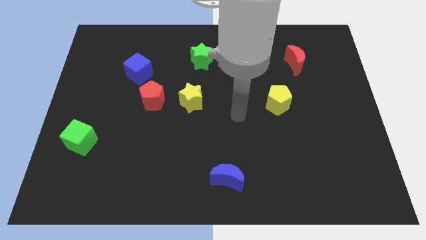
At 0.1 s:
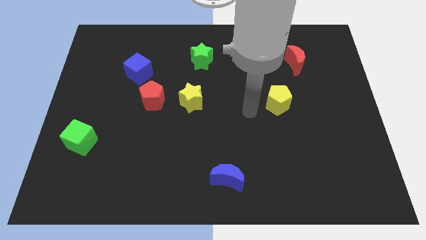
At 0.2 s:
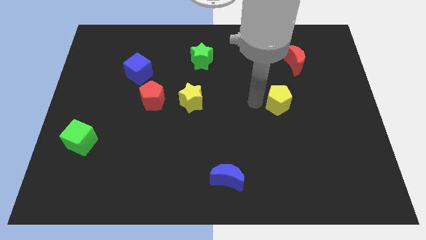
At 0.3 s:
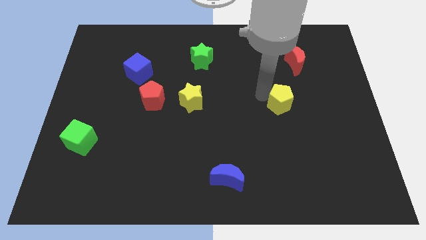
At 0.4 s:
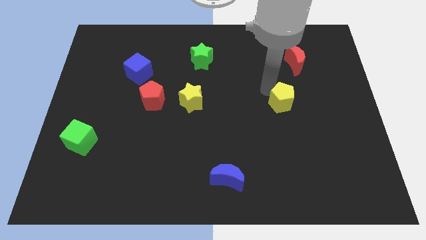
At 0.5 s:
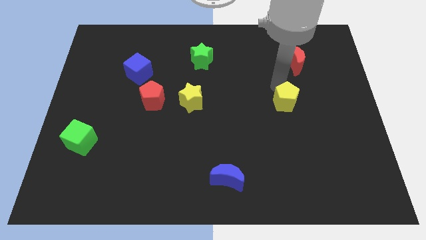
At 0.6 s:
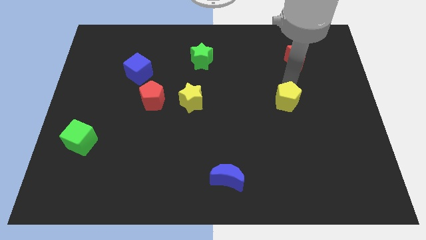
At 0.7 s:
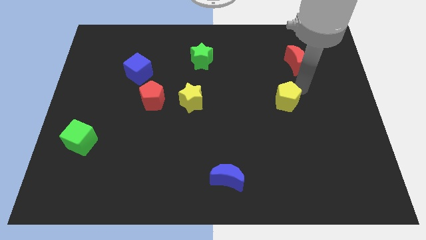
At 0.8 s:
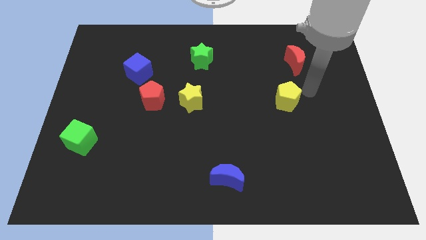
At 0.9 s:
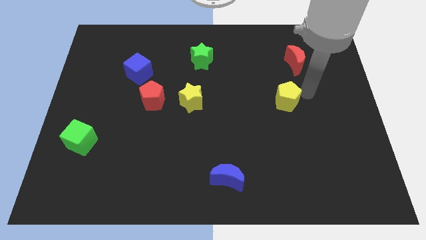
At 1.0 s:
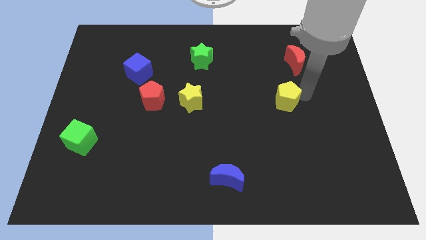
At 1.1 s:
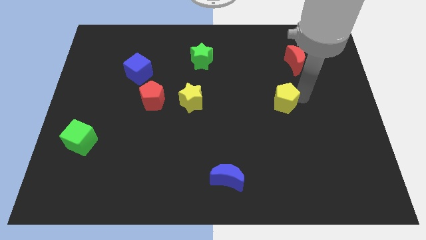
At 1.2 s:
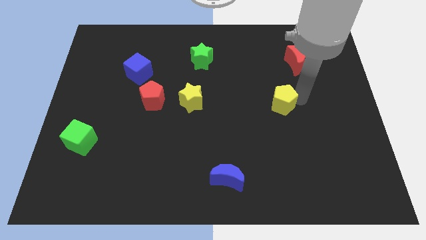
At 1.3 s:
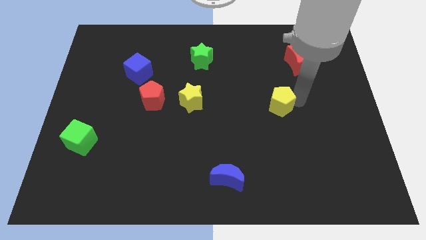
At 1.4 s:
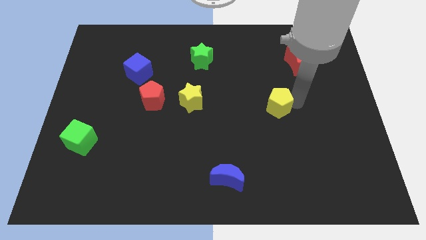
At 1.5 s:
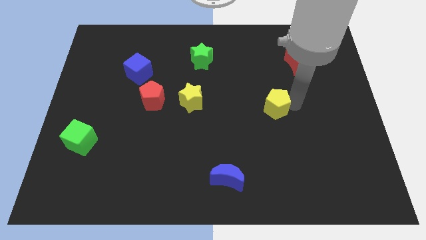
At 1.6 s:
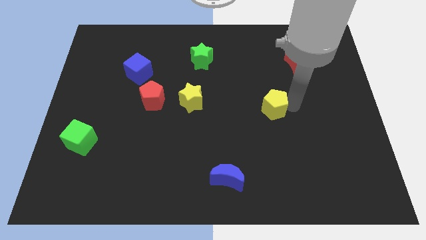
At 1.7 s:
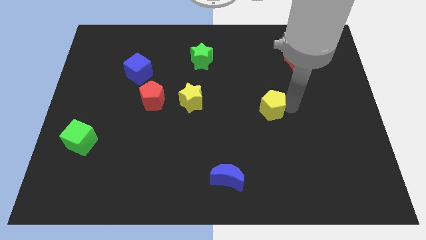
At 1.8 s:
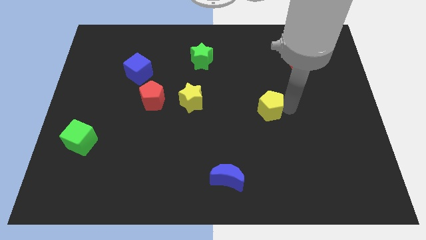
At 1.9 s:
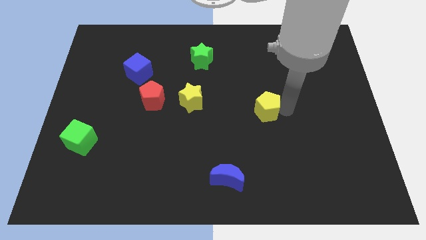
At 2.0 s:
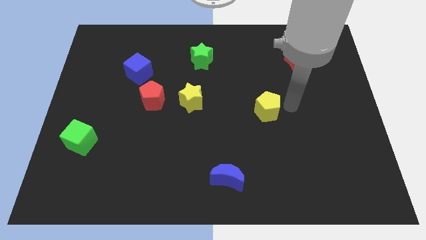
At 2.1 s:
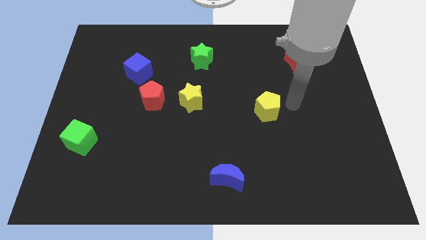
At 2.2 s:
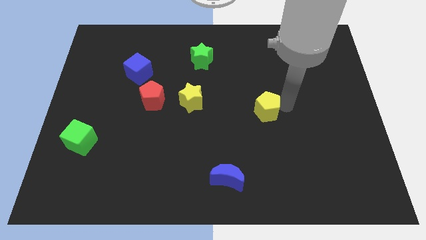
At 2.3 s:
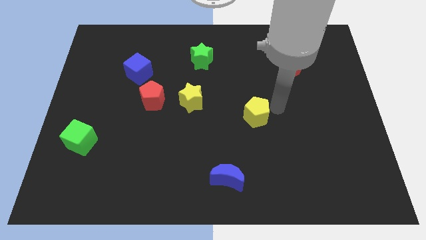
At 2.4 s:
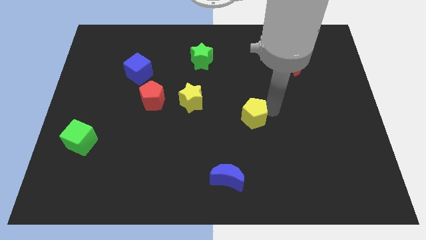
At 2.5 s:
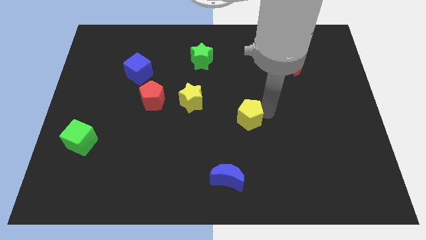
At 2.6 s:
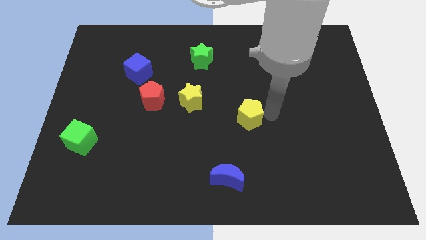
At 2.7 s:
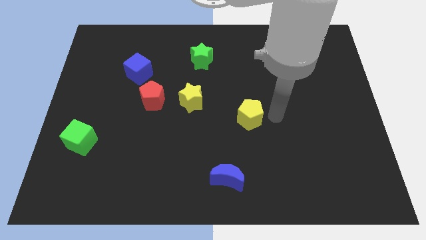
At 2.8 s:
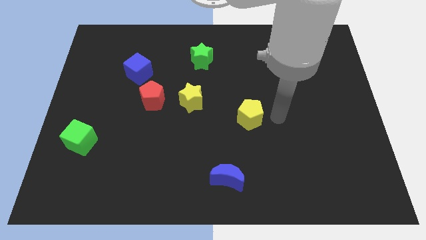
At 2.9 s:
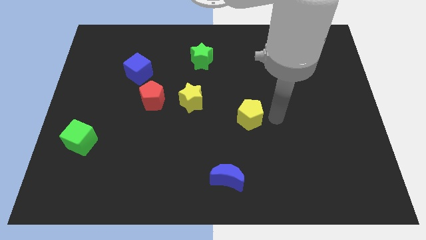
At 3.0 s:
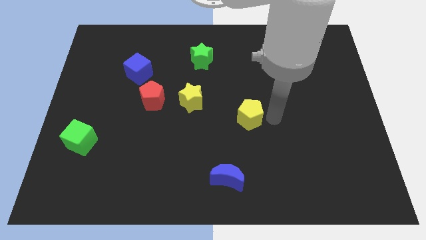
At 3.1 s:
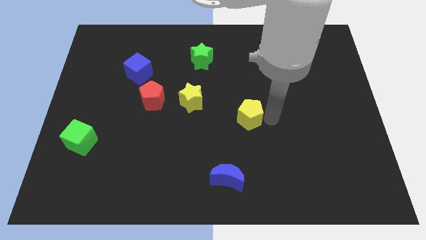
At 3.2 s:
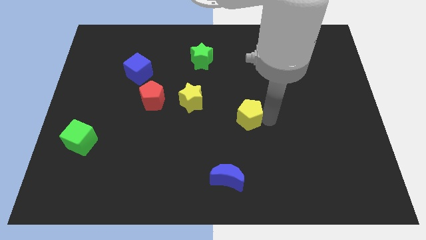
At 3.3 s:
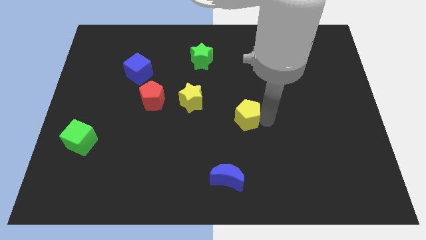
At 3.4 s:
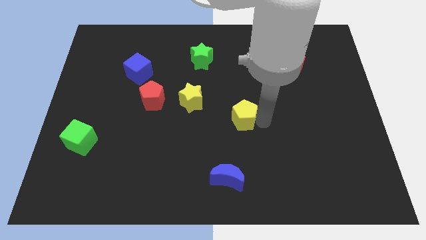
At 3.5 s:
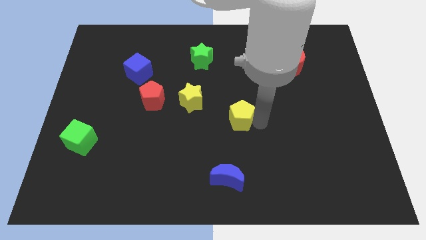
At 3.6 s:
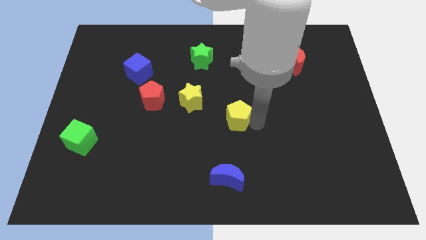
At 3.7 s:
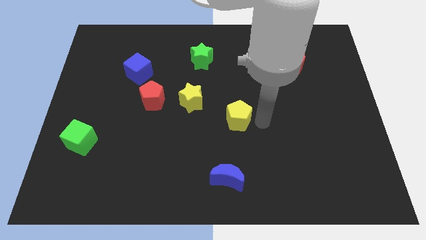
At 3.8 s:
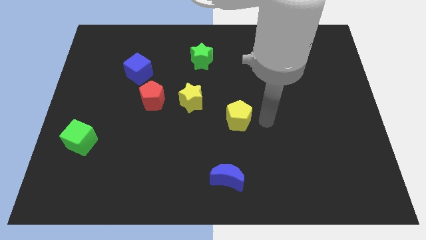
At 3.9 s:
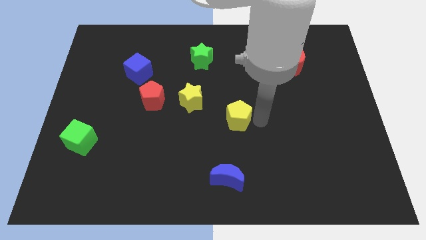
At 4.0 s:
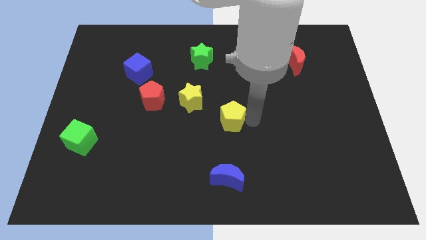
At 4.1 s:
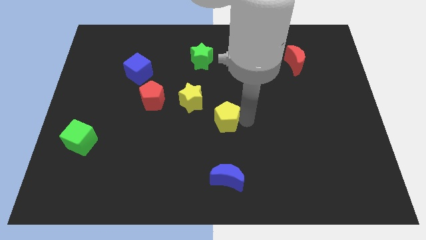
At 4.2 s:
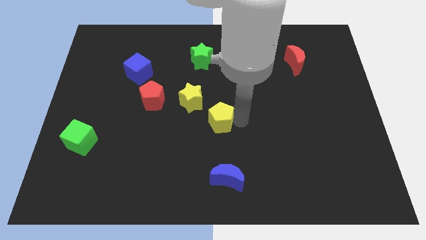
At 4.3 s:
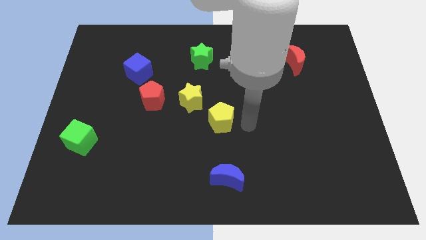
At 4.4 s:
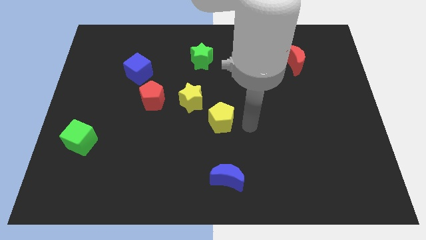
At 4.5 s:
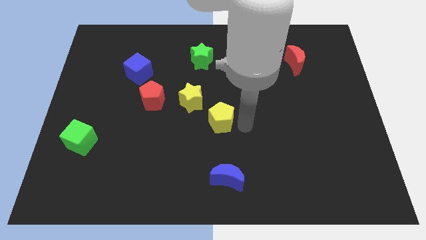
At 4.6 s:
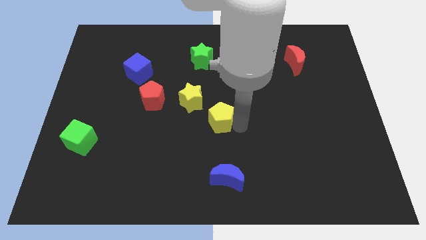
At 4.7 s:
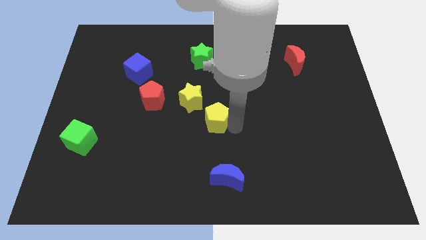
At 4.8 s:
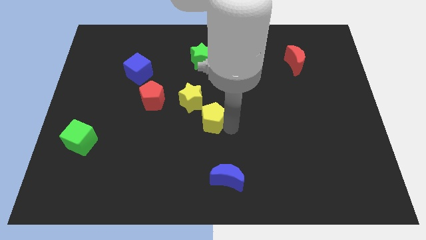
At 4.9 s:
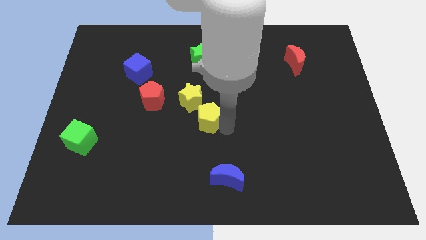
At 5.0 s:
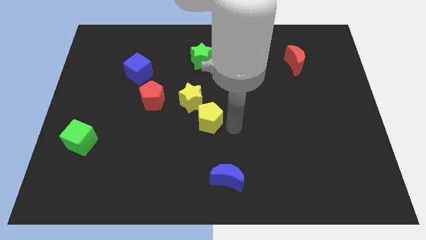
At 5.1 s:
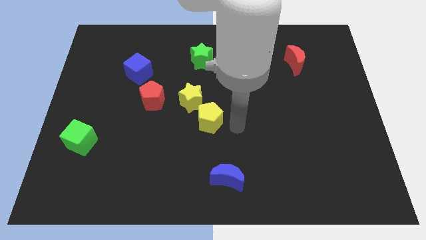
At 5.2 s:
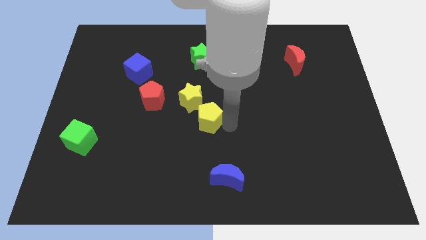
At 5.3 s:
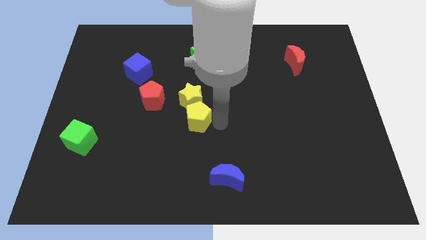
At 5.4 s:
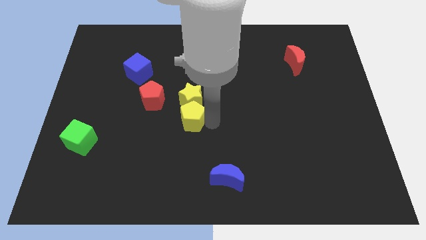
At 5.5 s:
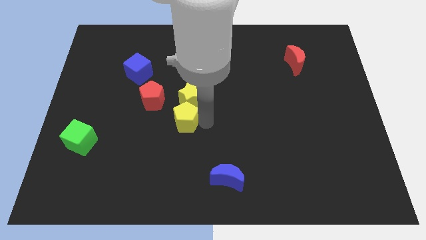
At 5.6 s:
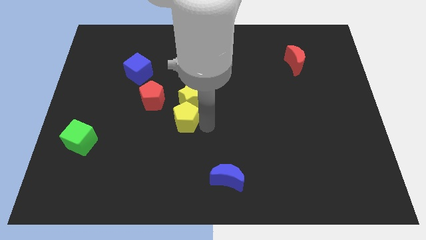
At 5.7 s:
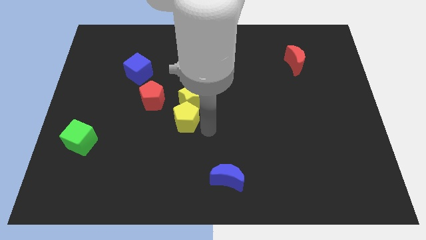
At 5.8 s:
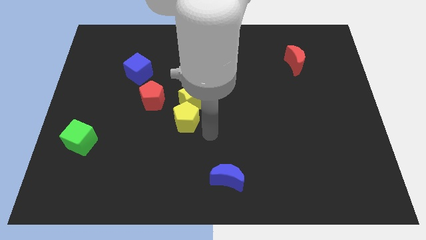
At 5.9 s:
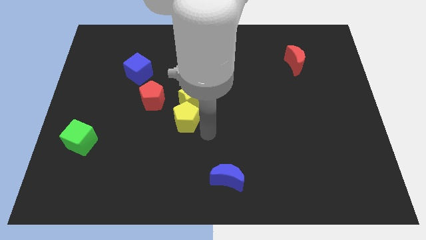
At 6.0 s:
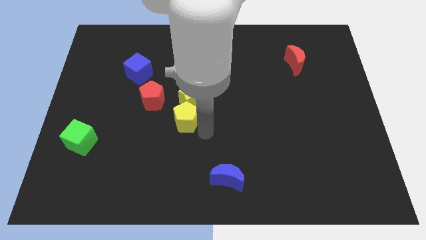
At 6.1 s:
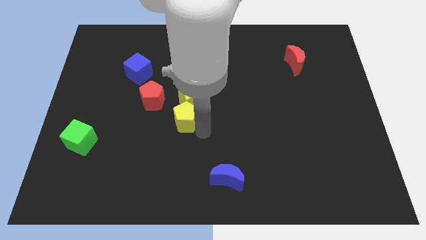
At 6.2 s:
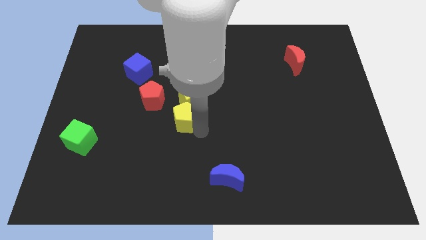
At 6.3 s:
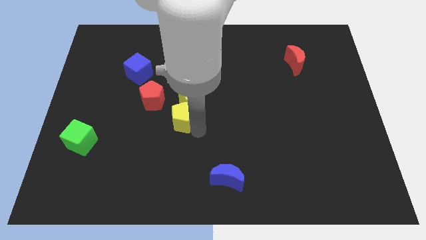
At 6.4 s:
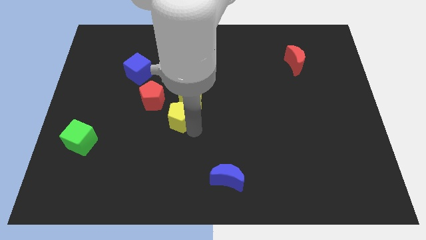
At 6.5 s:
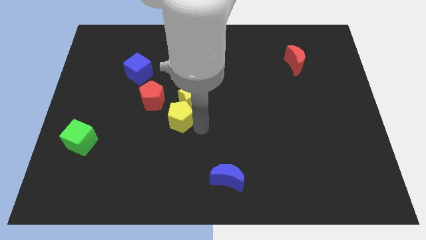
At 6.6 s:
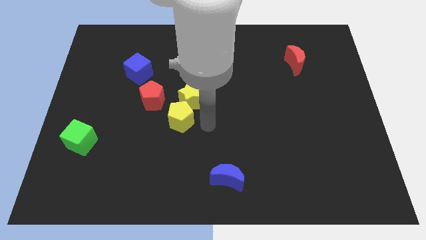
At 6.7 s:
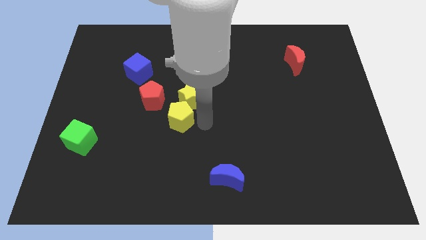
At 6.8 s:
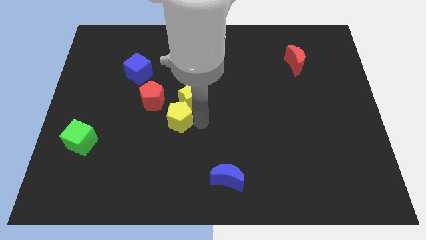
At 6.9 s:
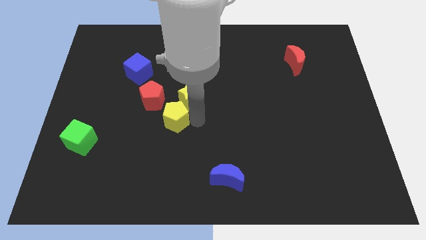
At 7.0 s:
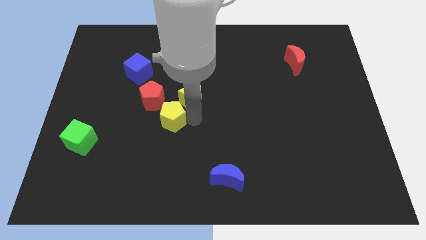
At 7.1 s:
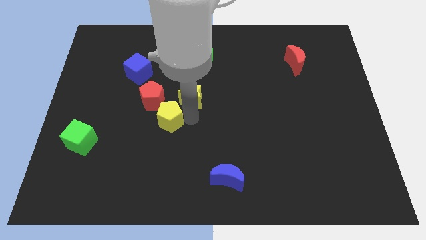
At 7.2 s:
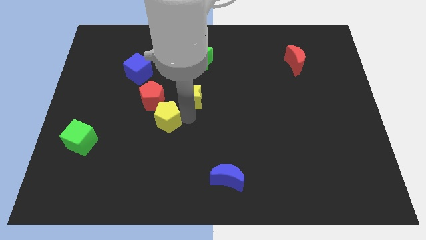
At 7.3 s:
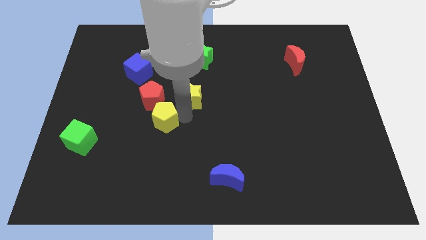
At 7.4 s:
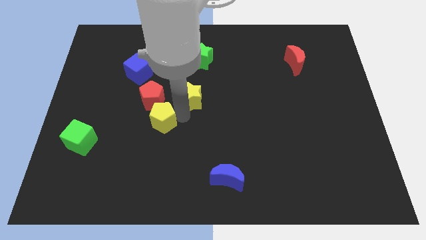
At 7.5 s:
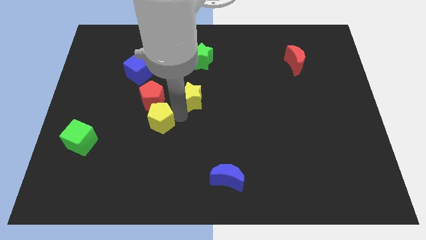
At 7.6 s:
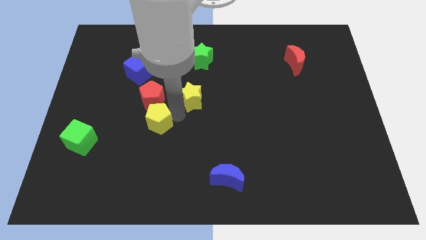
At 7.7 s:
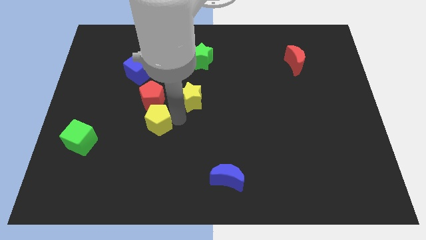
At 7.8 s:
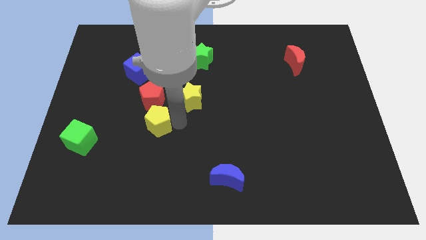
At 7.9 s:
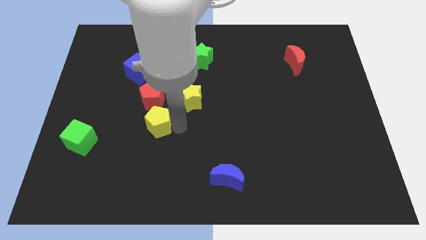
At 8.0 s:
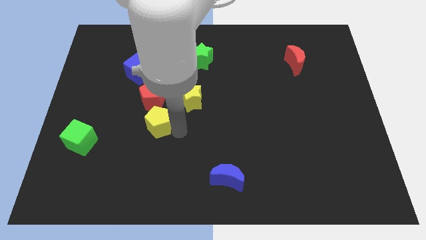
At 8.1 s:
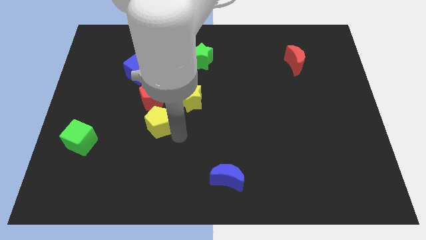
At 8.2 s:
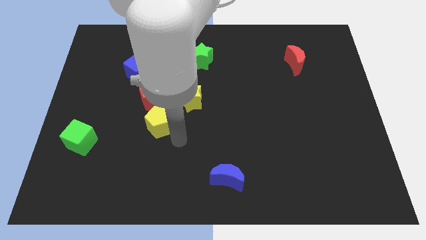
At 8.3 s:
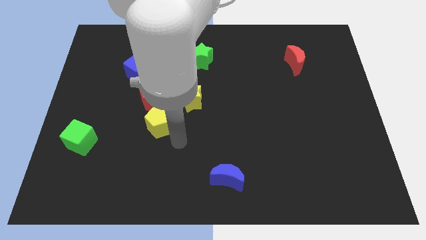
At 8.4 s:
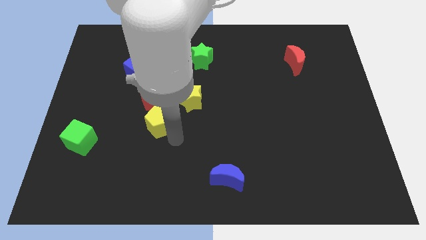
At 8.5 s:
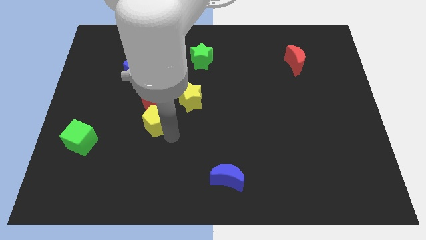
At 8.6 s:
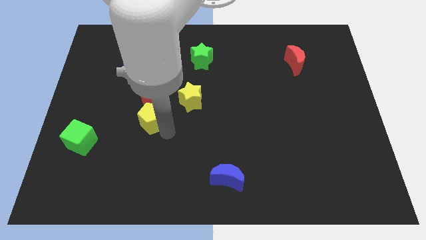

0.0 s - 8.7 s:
push the yellow pentagon to the bottom left side of the red pentagon
